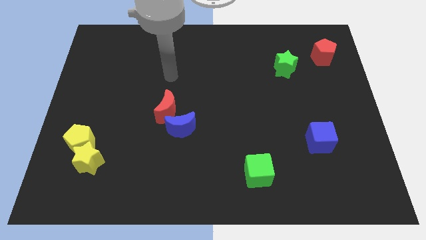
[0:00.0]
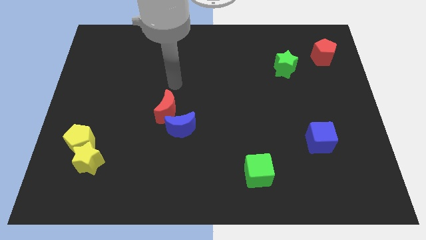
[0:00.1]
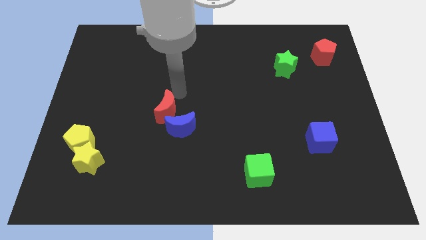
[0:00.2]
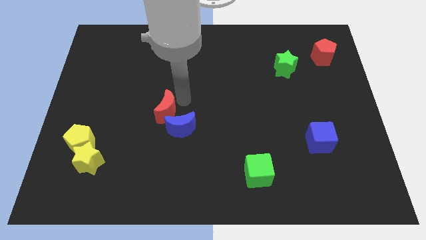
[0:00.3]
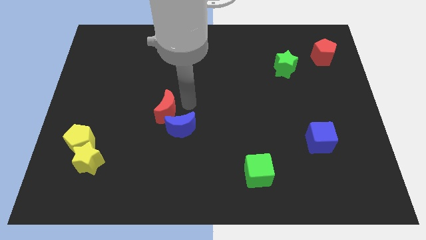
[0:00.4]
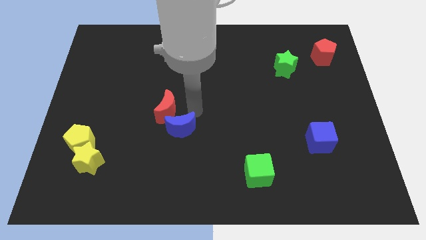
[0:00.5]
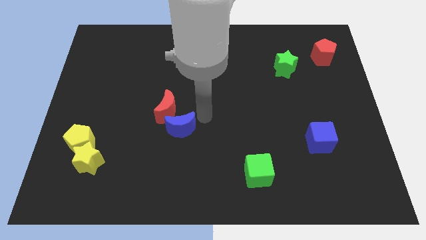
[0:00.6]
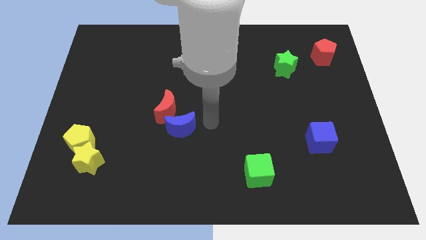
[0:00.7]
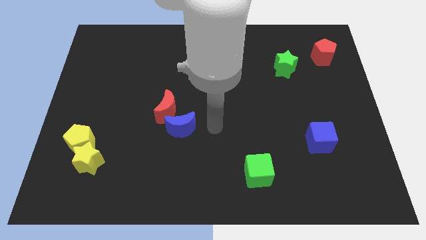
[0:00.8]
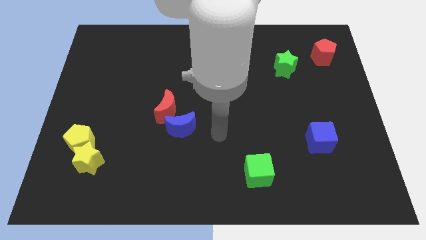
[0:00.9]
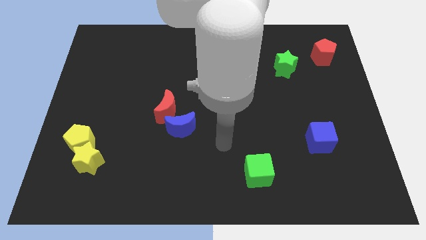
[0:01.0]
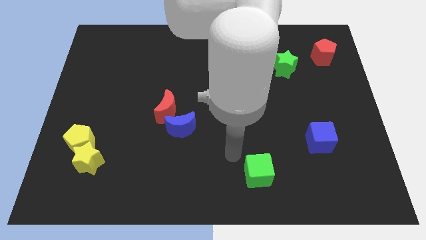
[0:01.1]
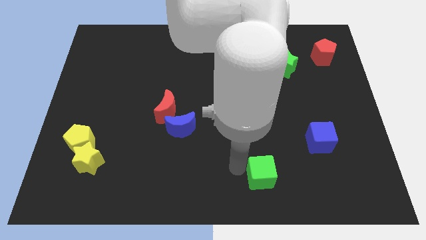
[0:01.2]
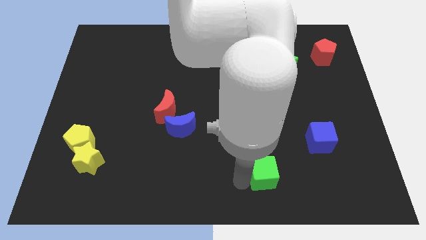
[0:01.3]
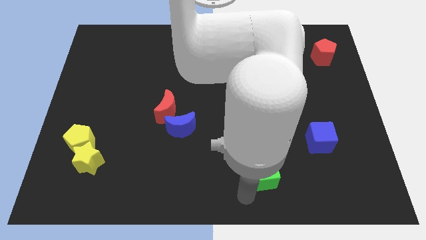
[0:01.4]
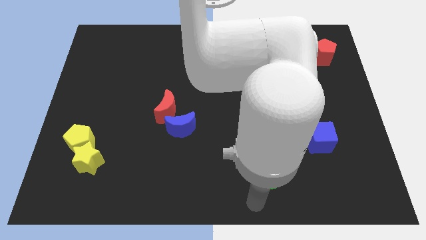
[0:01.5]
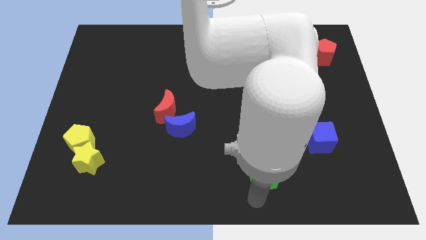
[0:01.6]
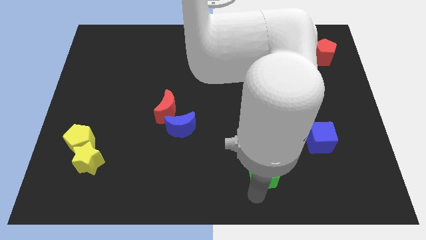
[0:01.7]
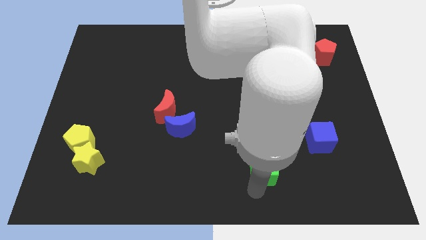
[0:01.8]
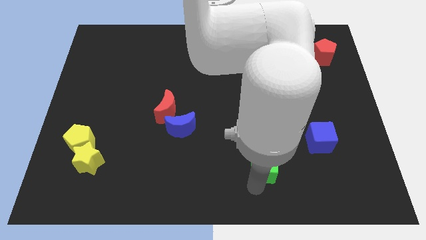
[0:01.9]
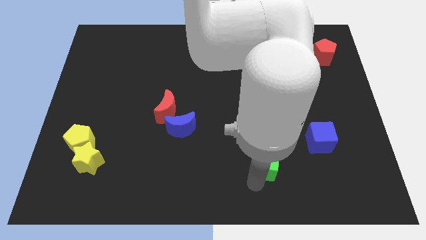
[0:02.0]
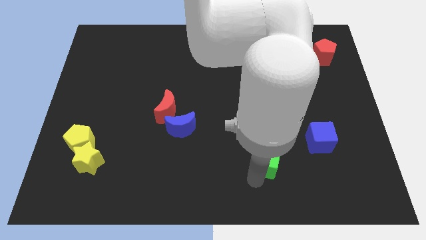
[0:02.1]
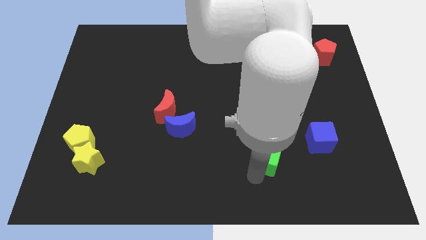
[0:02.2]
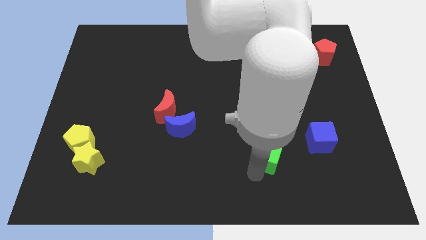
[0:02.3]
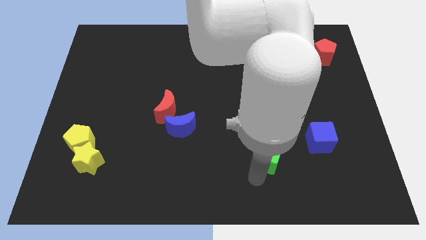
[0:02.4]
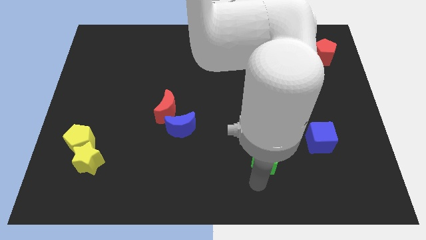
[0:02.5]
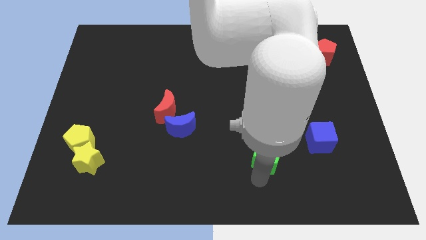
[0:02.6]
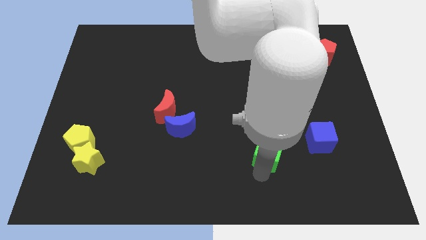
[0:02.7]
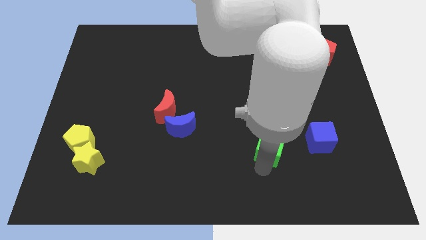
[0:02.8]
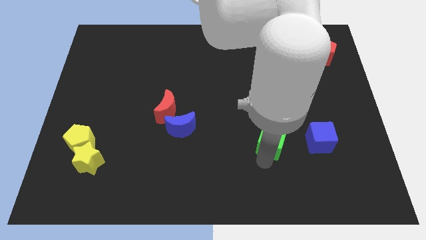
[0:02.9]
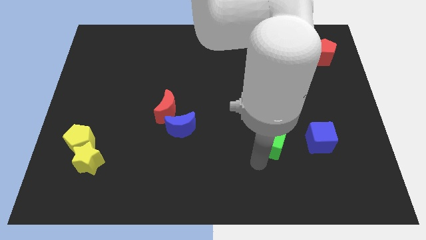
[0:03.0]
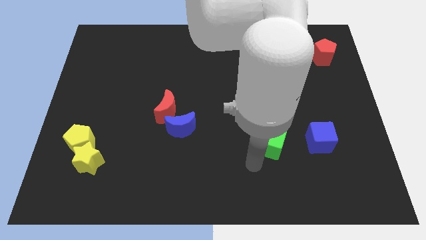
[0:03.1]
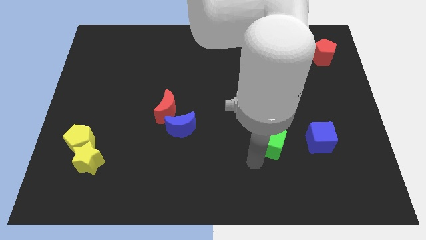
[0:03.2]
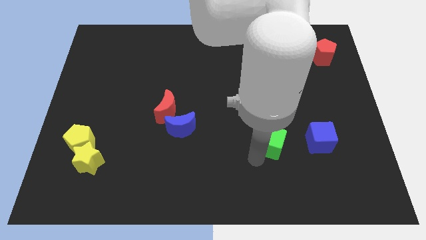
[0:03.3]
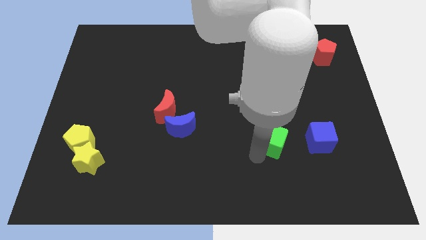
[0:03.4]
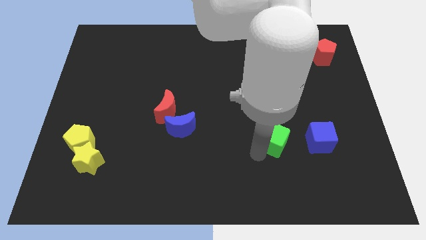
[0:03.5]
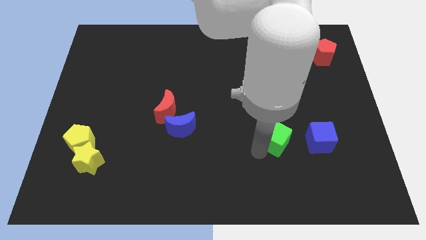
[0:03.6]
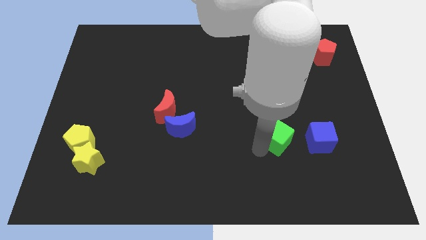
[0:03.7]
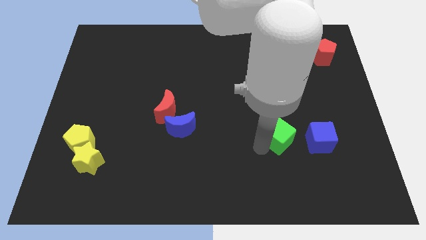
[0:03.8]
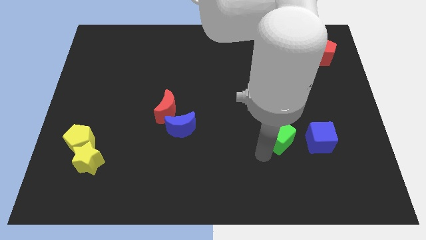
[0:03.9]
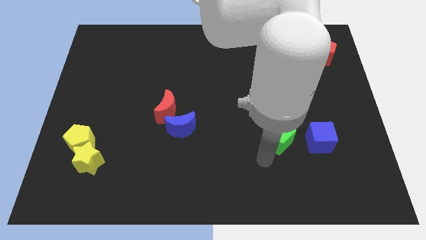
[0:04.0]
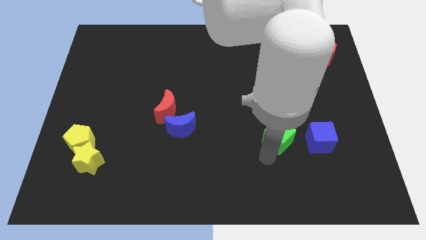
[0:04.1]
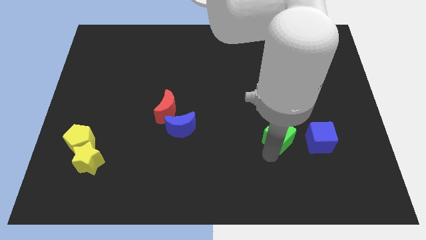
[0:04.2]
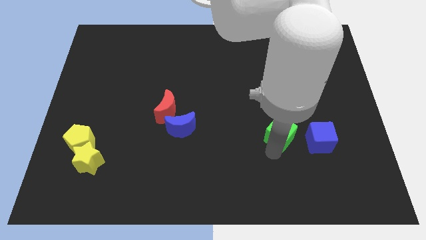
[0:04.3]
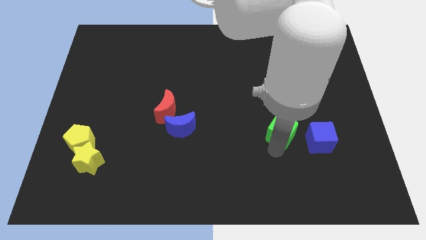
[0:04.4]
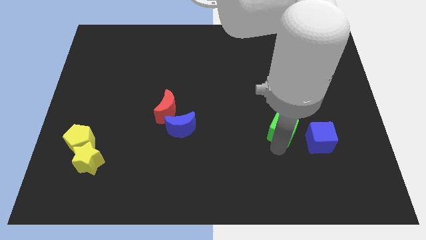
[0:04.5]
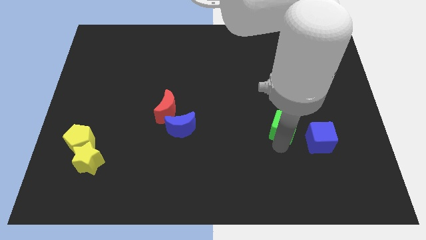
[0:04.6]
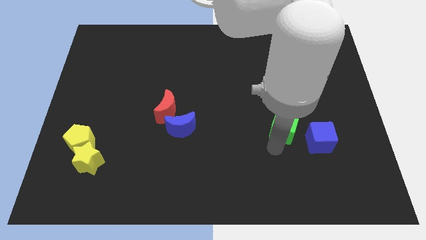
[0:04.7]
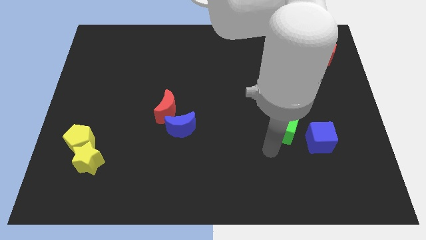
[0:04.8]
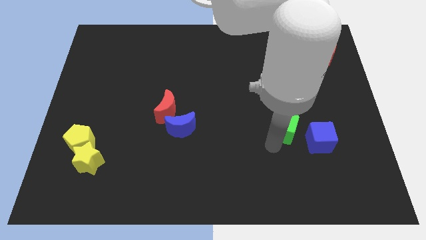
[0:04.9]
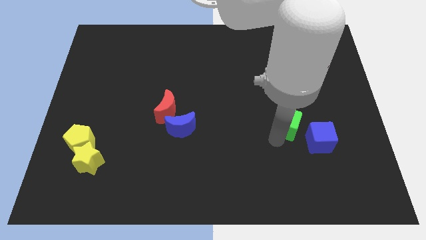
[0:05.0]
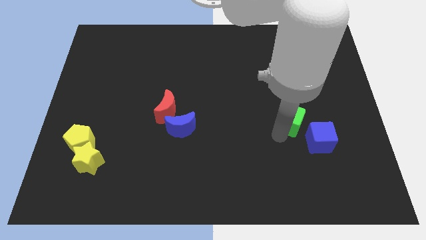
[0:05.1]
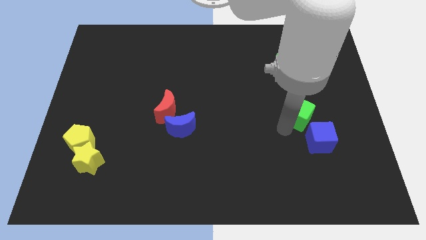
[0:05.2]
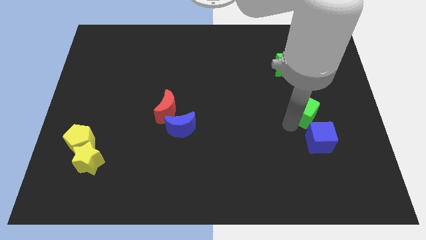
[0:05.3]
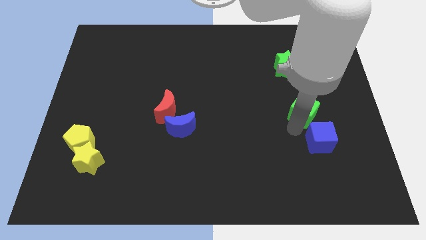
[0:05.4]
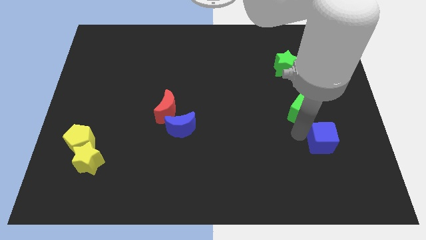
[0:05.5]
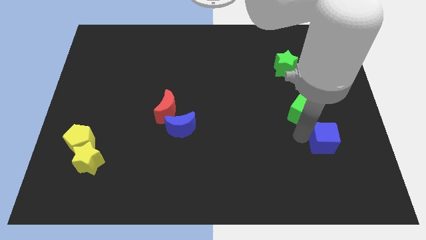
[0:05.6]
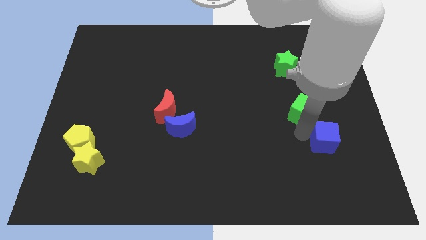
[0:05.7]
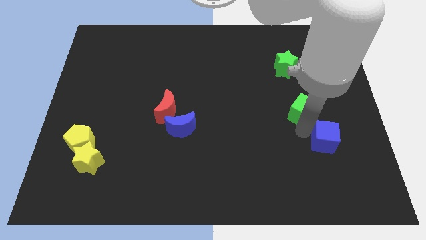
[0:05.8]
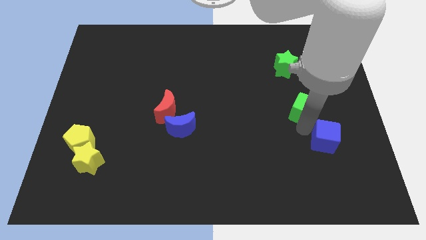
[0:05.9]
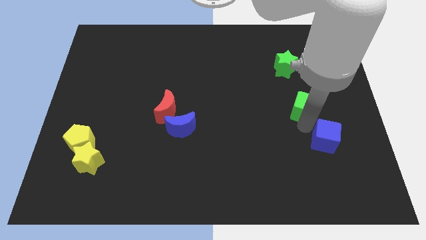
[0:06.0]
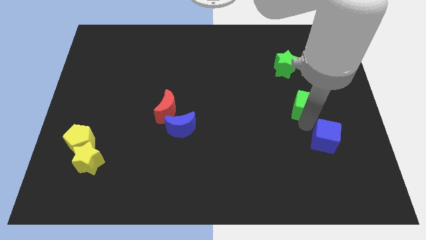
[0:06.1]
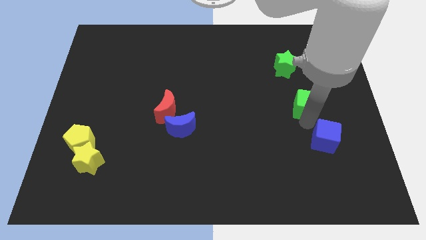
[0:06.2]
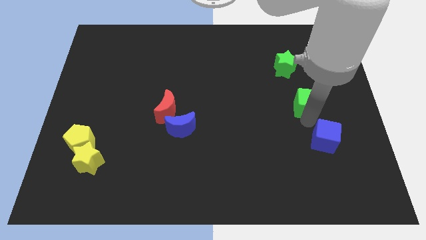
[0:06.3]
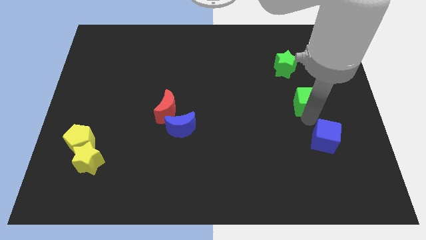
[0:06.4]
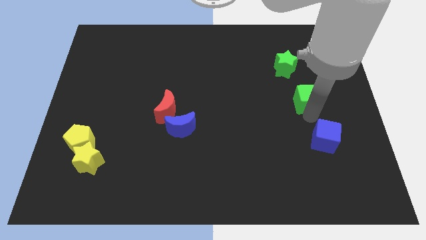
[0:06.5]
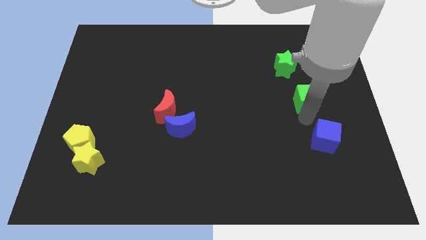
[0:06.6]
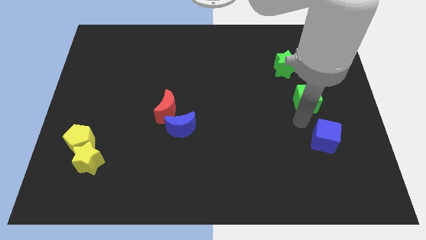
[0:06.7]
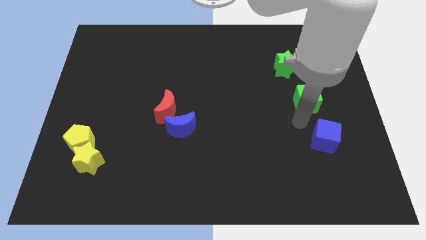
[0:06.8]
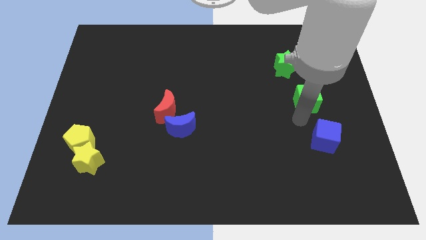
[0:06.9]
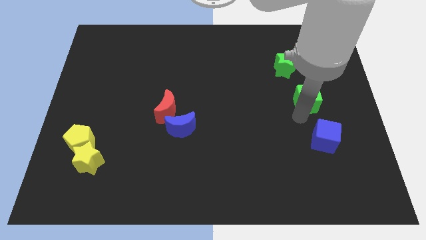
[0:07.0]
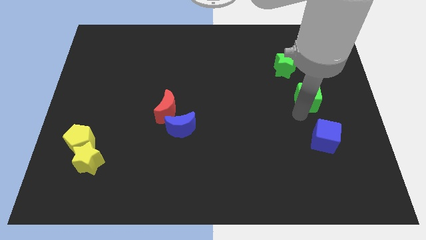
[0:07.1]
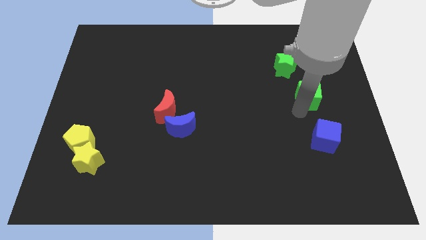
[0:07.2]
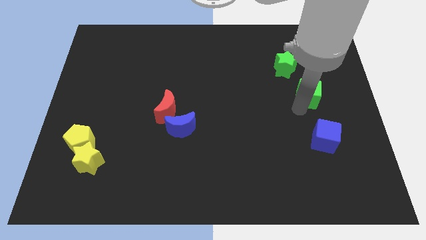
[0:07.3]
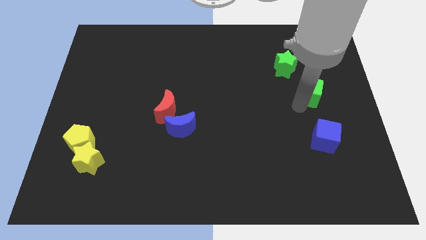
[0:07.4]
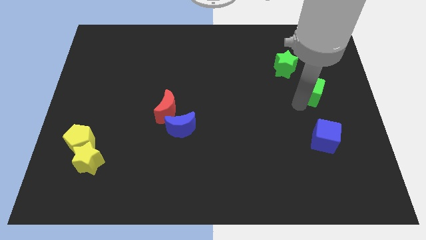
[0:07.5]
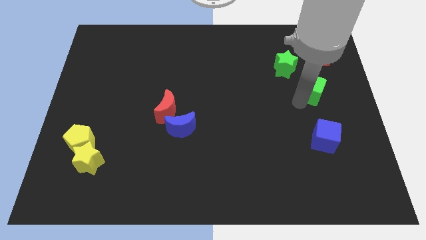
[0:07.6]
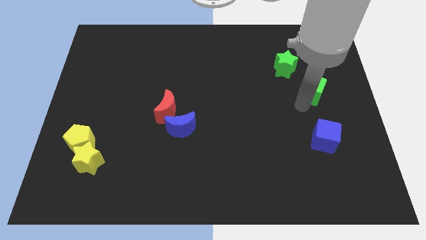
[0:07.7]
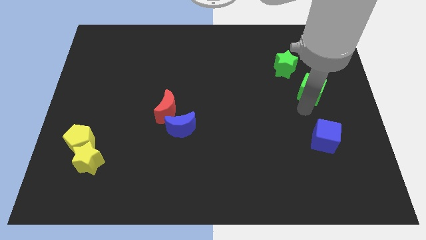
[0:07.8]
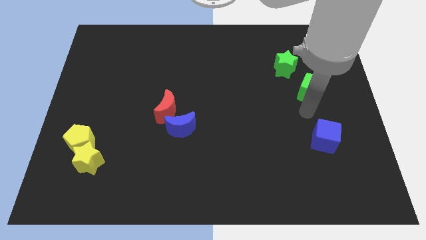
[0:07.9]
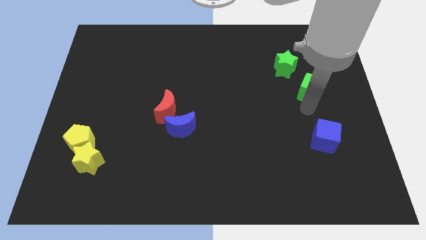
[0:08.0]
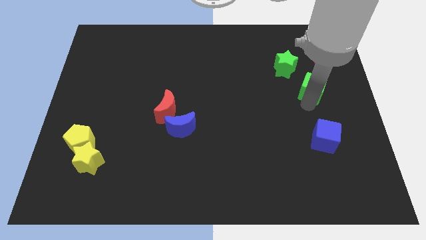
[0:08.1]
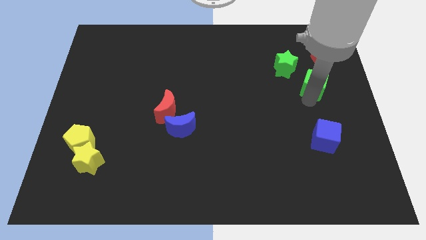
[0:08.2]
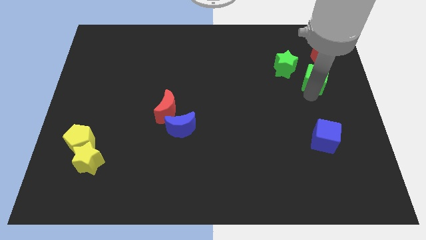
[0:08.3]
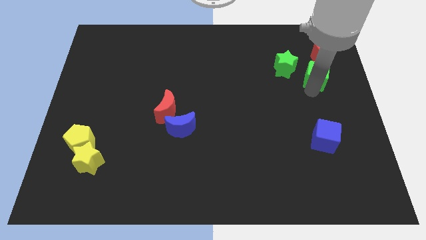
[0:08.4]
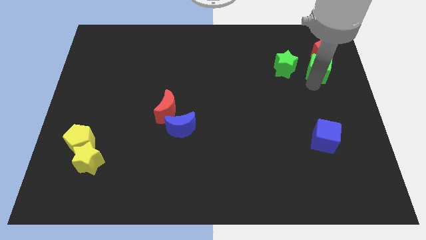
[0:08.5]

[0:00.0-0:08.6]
slide the green cube close to the red pentagon
